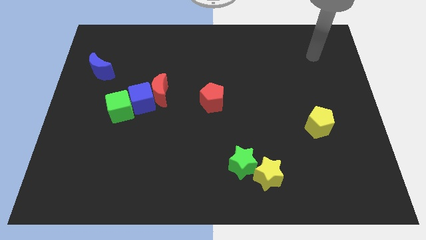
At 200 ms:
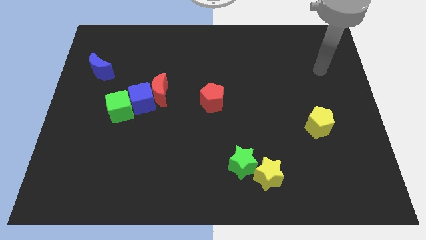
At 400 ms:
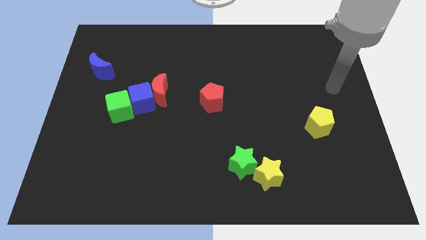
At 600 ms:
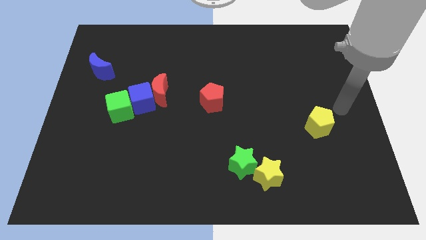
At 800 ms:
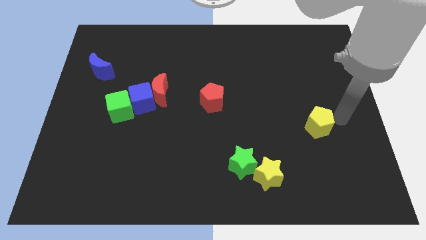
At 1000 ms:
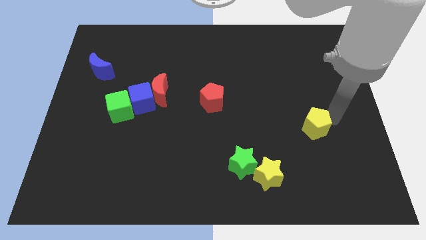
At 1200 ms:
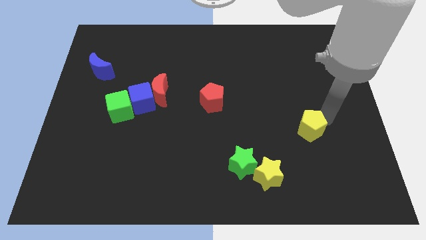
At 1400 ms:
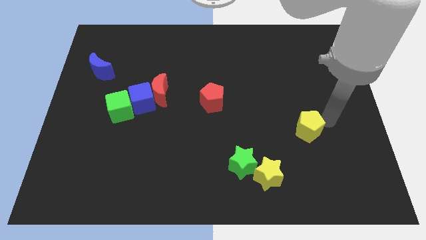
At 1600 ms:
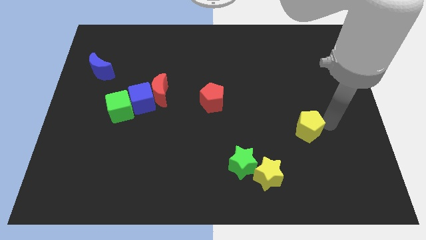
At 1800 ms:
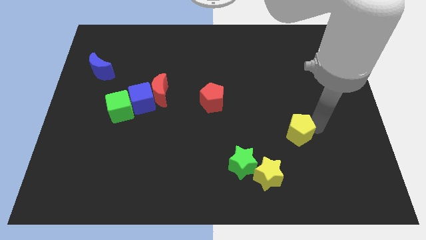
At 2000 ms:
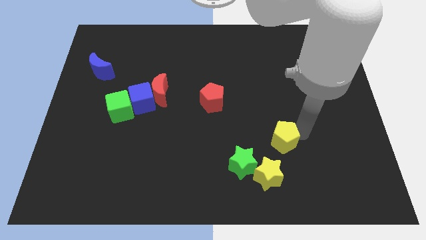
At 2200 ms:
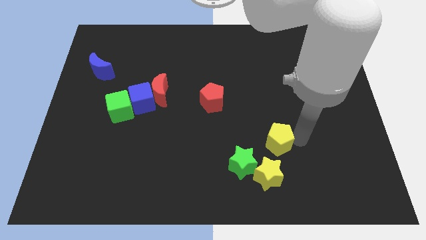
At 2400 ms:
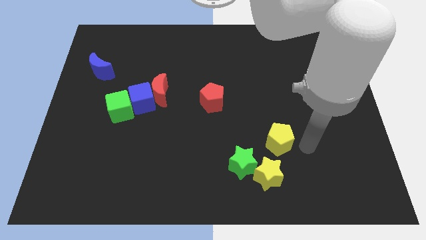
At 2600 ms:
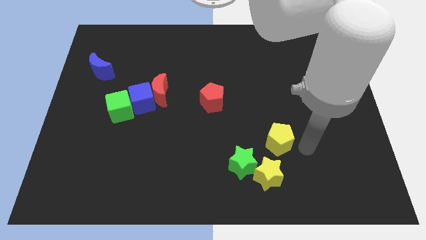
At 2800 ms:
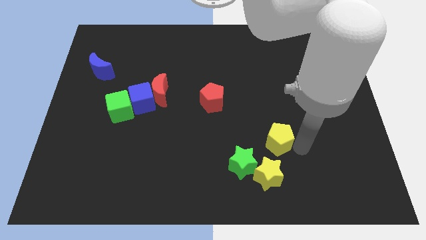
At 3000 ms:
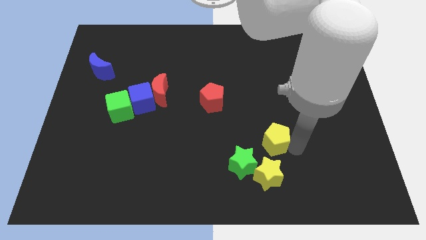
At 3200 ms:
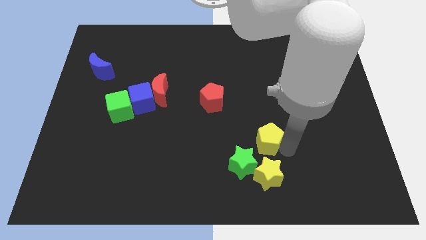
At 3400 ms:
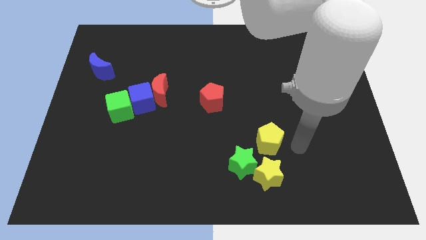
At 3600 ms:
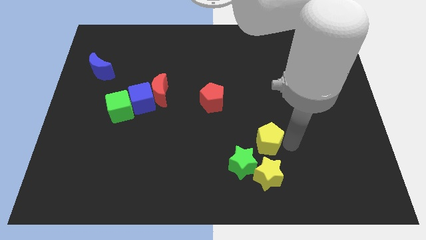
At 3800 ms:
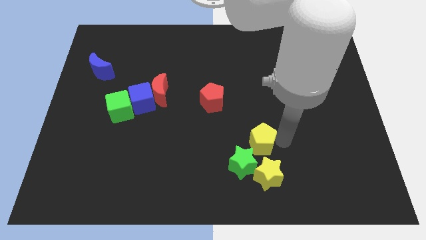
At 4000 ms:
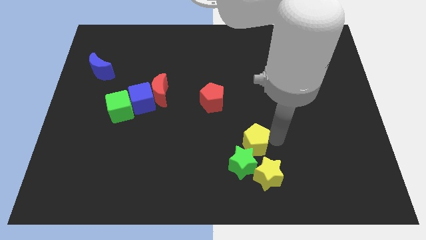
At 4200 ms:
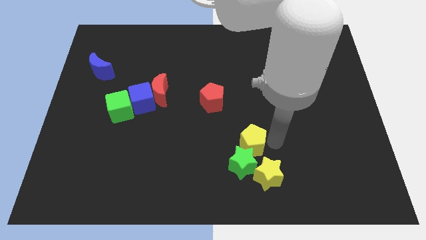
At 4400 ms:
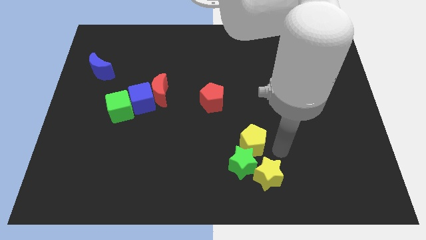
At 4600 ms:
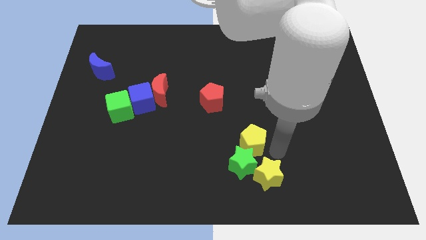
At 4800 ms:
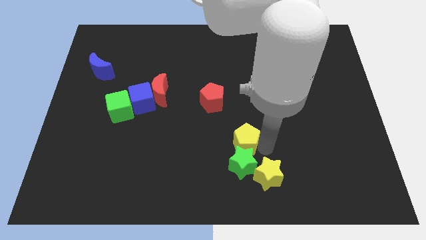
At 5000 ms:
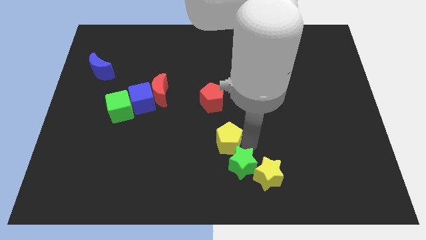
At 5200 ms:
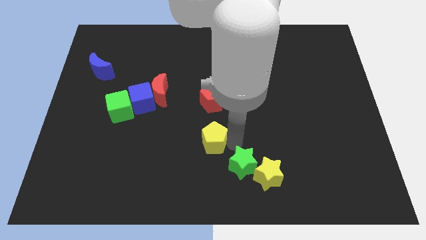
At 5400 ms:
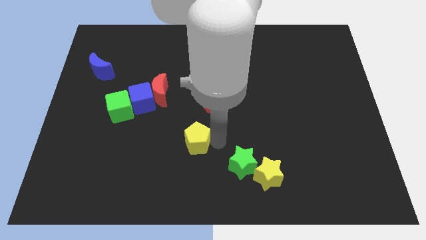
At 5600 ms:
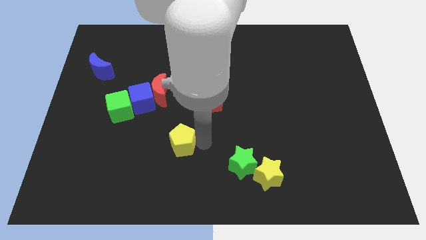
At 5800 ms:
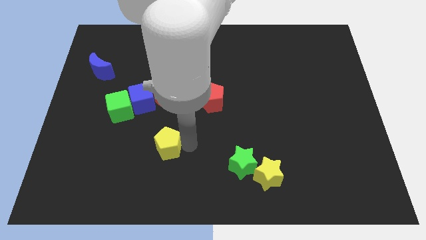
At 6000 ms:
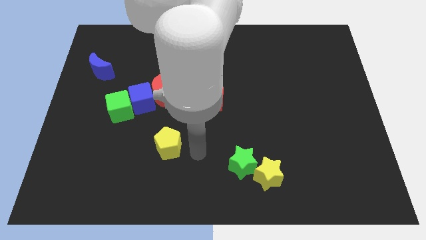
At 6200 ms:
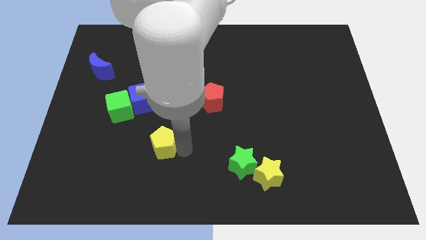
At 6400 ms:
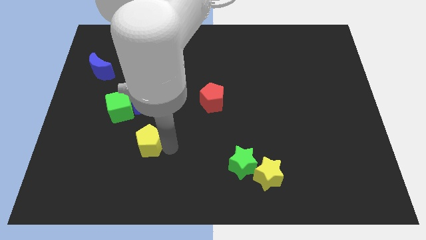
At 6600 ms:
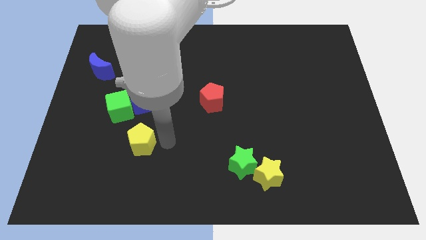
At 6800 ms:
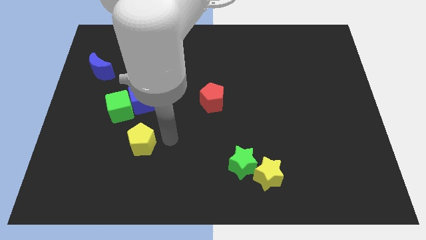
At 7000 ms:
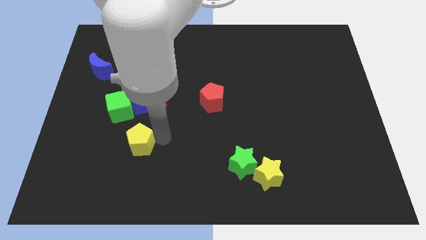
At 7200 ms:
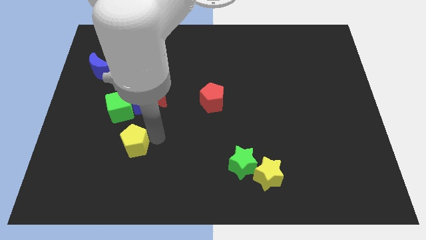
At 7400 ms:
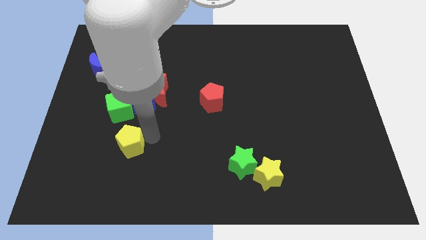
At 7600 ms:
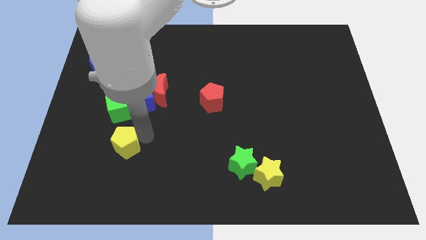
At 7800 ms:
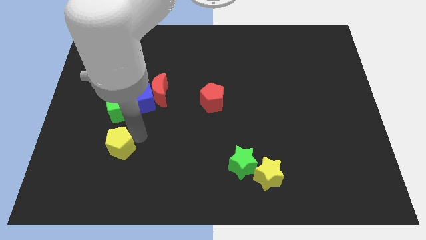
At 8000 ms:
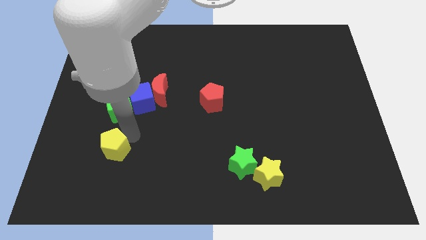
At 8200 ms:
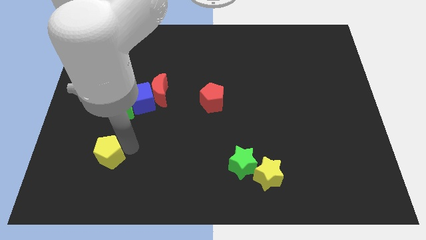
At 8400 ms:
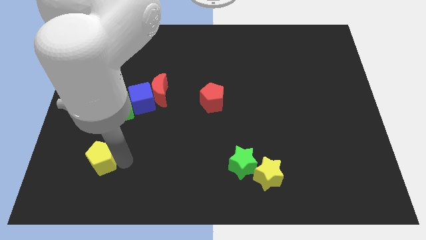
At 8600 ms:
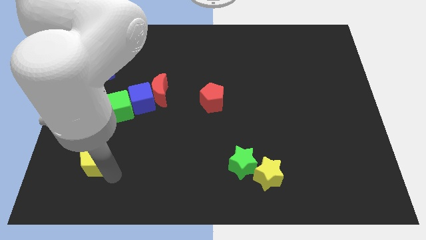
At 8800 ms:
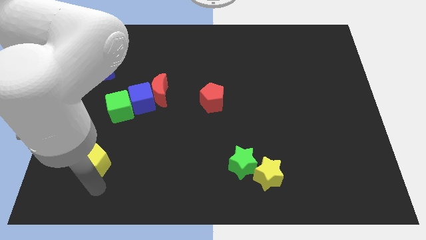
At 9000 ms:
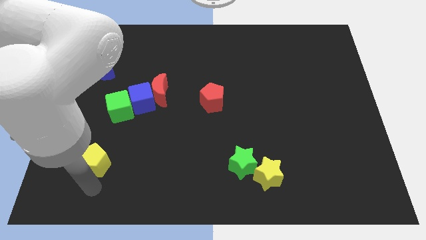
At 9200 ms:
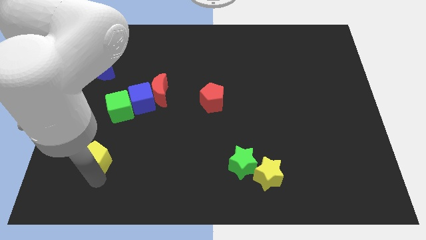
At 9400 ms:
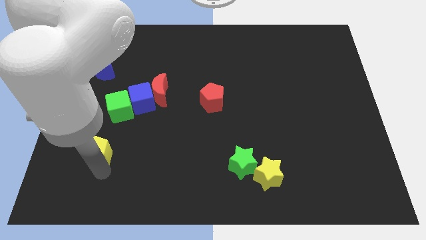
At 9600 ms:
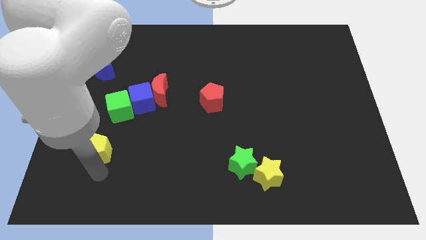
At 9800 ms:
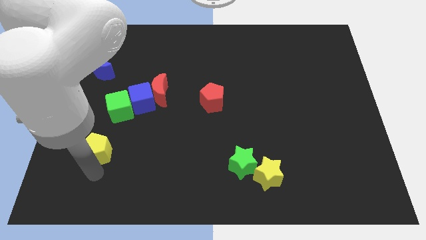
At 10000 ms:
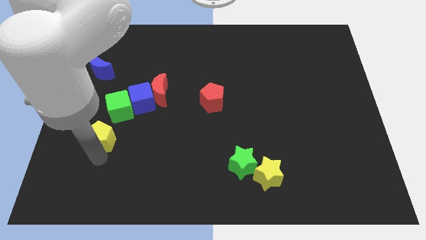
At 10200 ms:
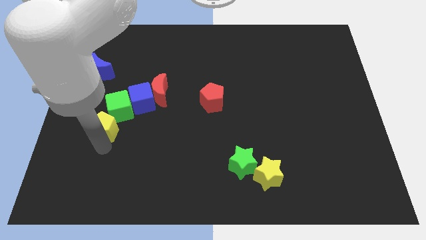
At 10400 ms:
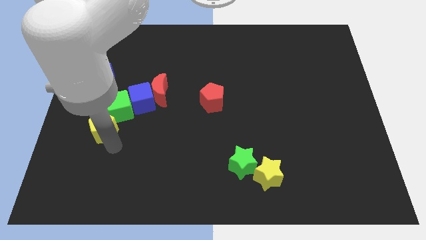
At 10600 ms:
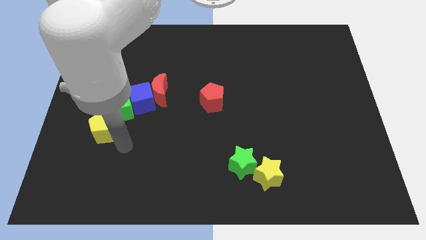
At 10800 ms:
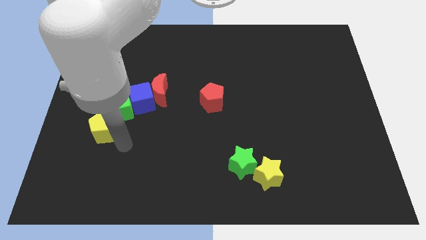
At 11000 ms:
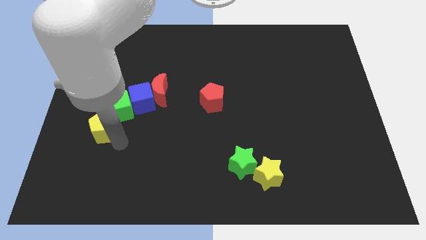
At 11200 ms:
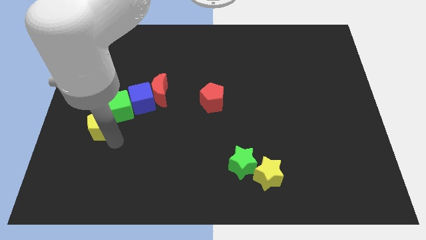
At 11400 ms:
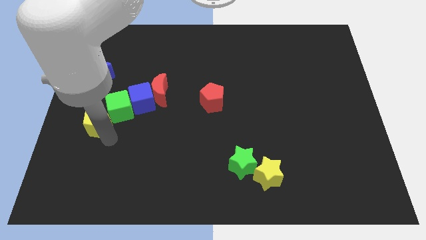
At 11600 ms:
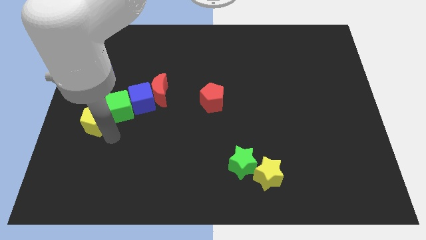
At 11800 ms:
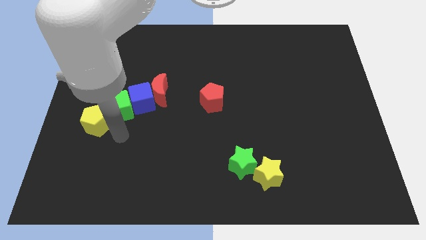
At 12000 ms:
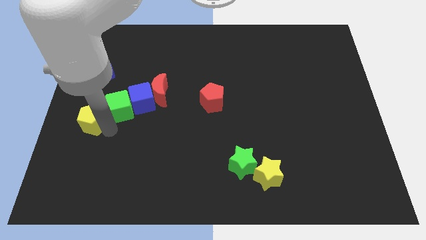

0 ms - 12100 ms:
push the yellow pentagon to the left side
